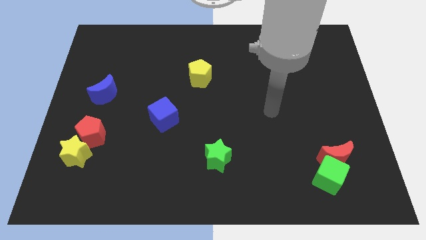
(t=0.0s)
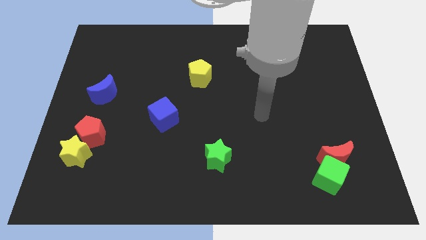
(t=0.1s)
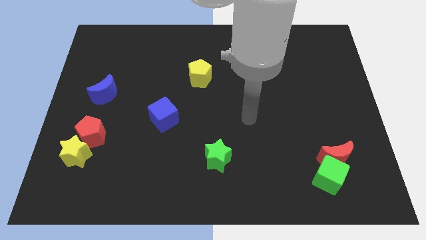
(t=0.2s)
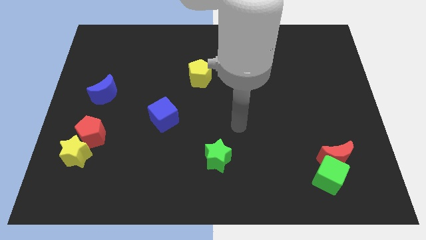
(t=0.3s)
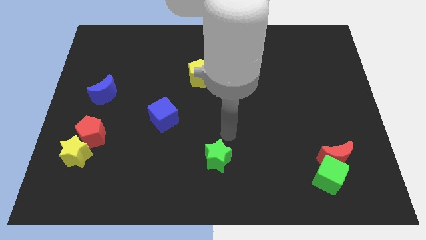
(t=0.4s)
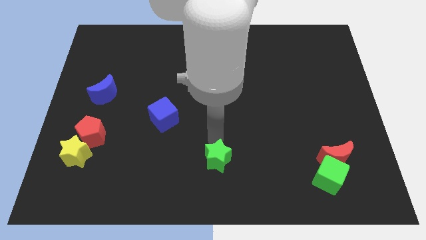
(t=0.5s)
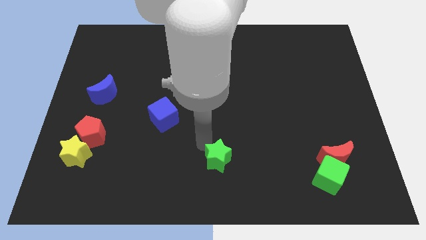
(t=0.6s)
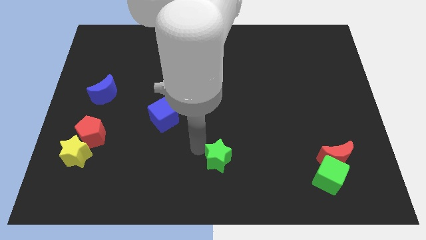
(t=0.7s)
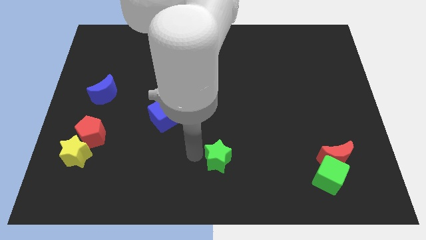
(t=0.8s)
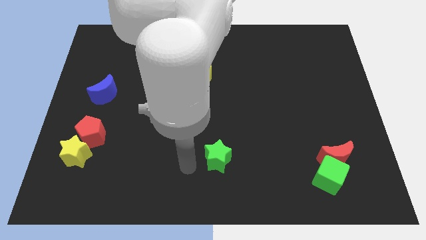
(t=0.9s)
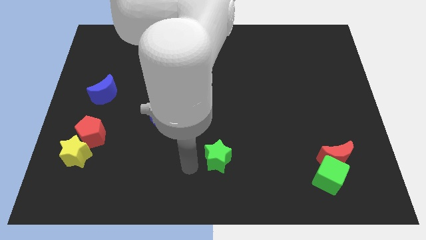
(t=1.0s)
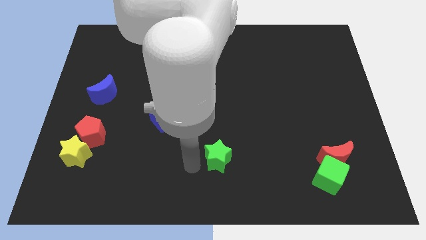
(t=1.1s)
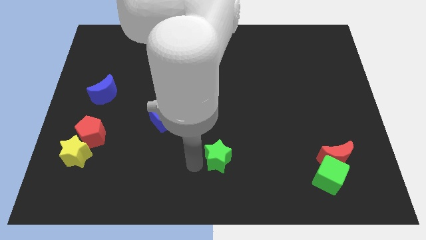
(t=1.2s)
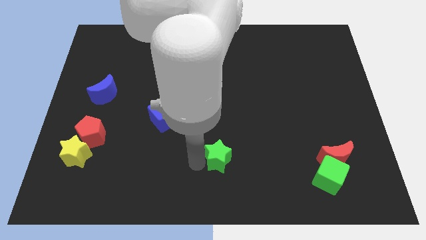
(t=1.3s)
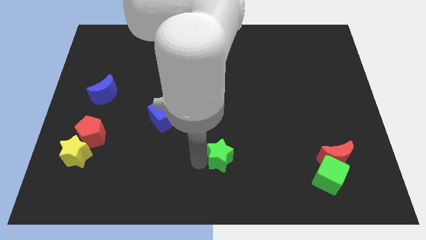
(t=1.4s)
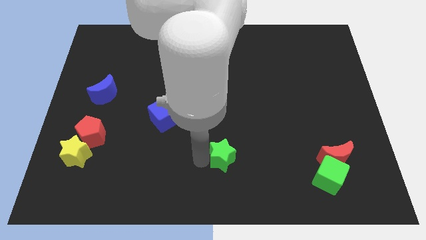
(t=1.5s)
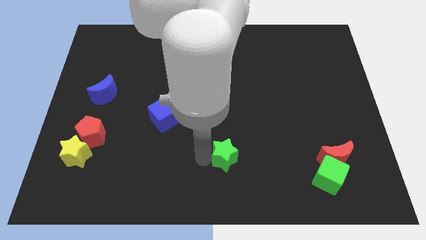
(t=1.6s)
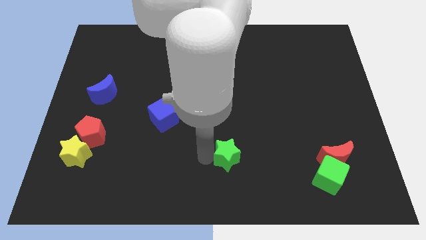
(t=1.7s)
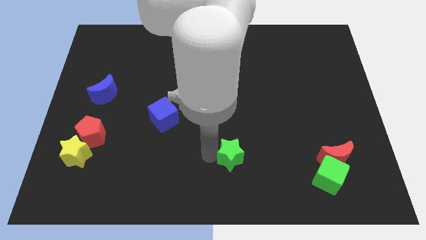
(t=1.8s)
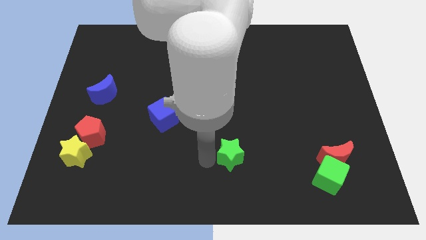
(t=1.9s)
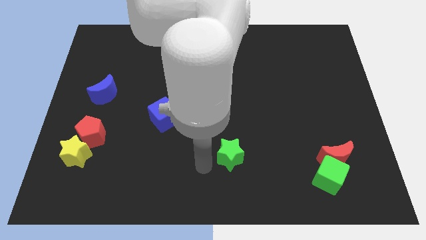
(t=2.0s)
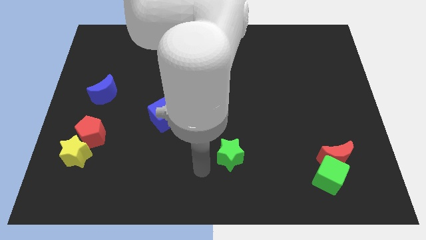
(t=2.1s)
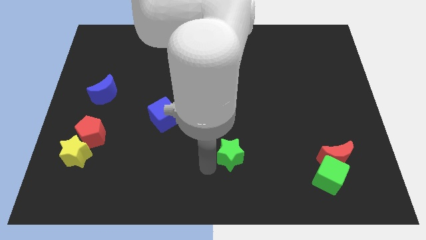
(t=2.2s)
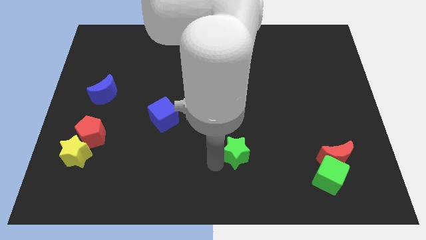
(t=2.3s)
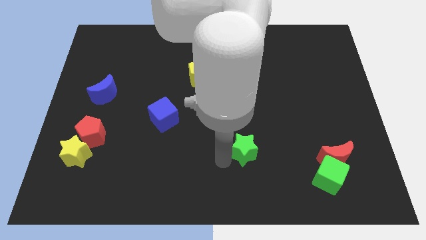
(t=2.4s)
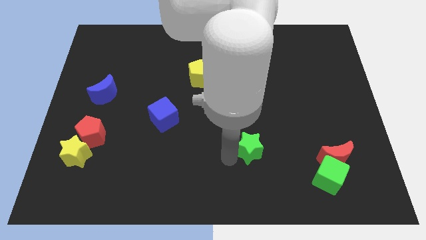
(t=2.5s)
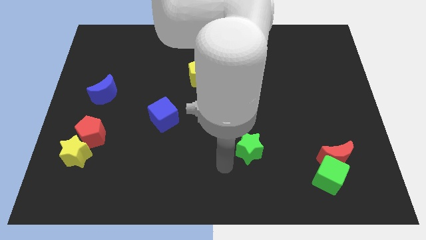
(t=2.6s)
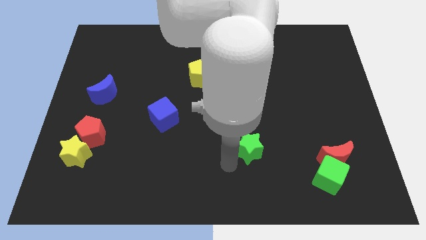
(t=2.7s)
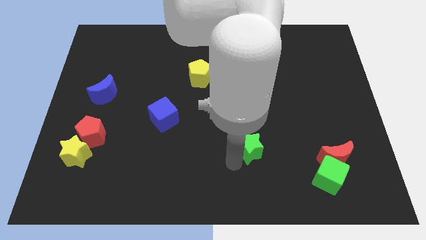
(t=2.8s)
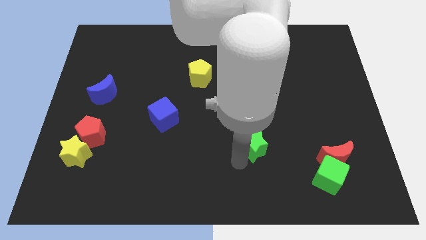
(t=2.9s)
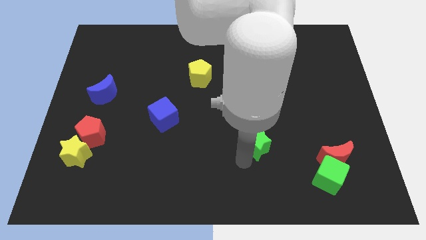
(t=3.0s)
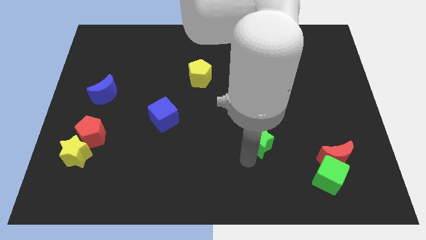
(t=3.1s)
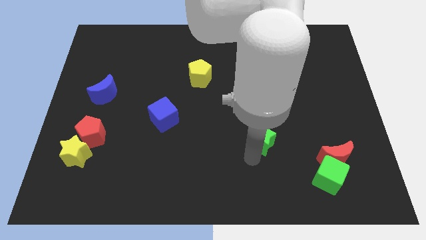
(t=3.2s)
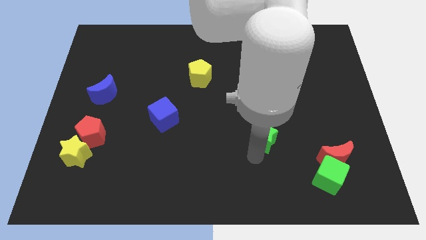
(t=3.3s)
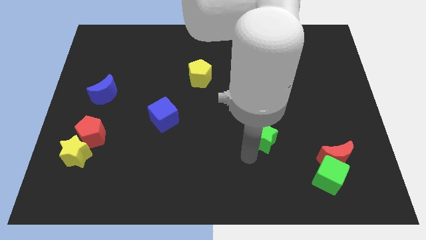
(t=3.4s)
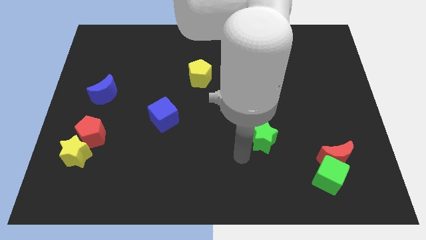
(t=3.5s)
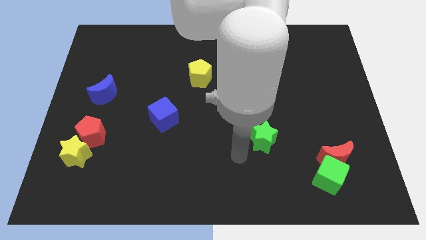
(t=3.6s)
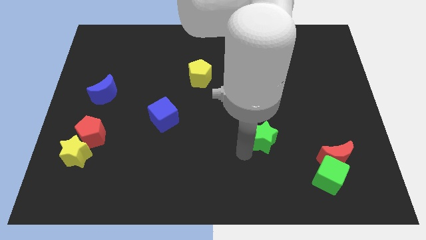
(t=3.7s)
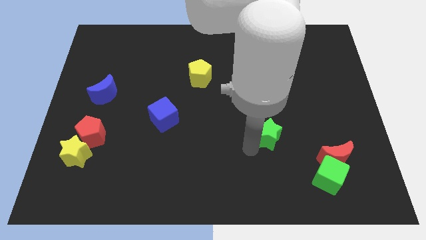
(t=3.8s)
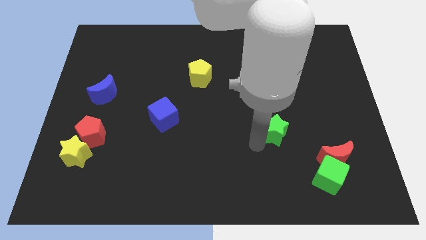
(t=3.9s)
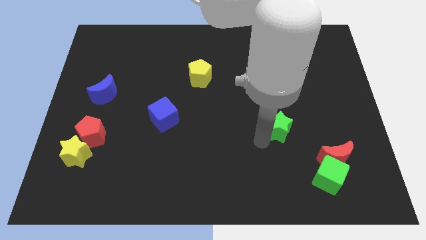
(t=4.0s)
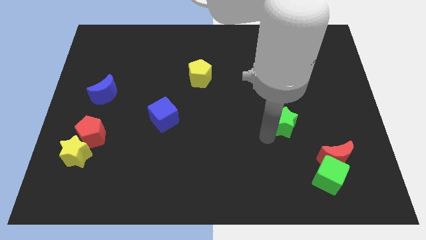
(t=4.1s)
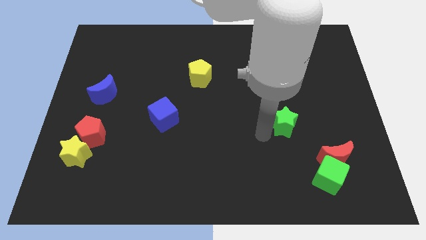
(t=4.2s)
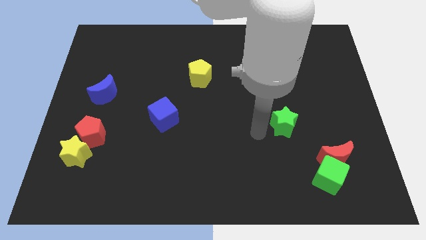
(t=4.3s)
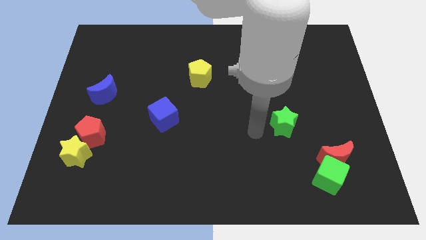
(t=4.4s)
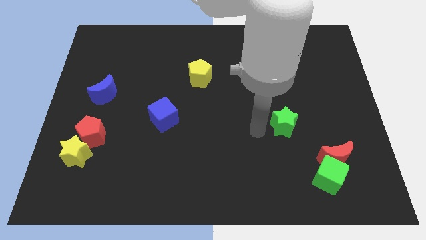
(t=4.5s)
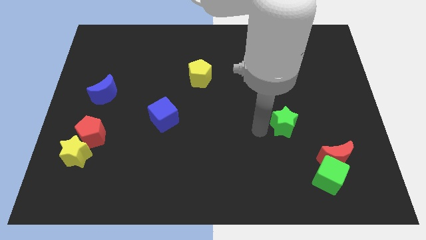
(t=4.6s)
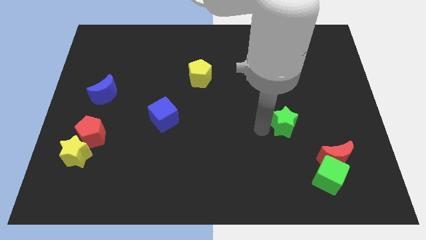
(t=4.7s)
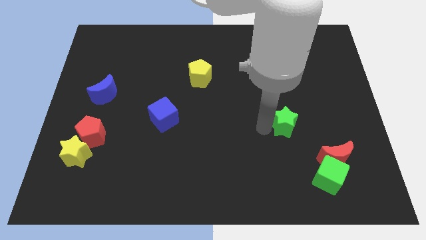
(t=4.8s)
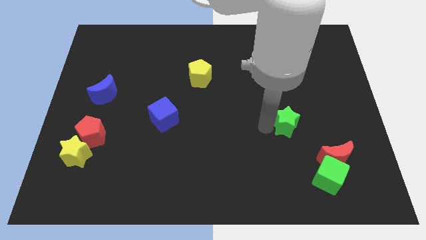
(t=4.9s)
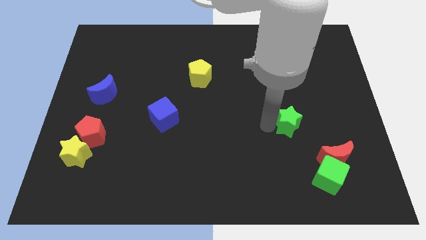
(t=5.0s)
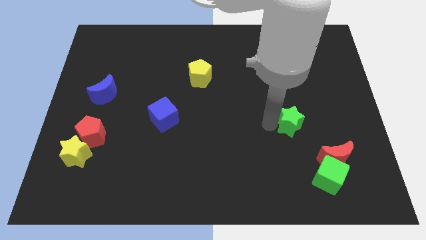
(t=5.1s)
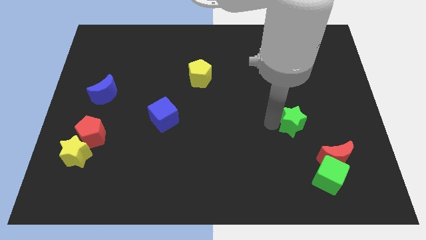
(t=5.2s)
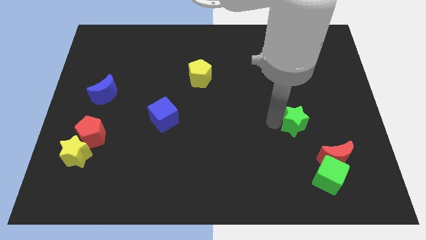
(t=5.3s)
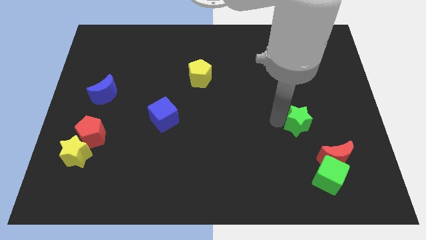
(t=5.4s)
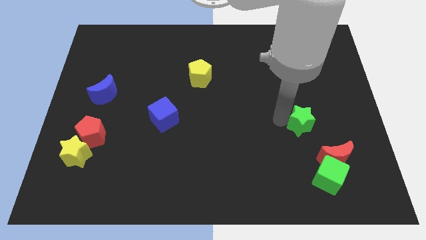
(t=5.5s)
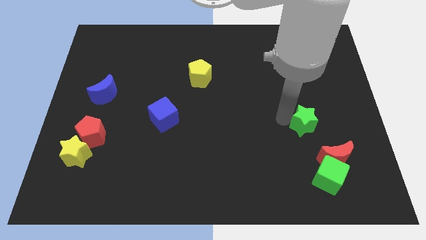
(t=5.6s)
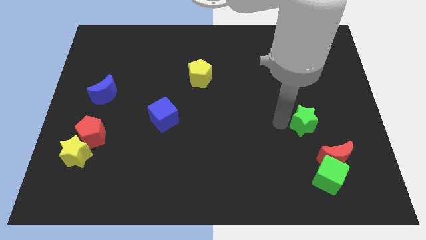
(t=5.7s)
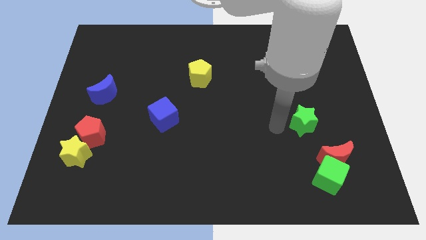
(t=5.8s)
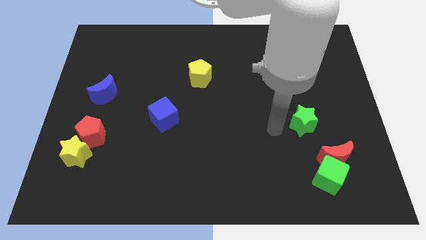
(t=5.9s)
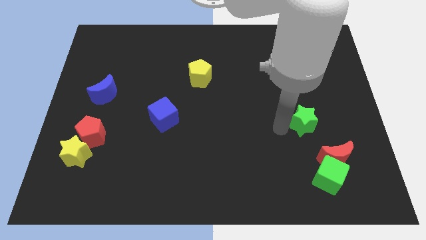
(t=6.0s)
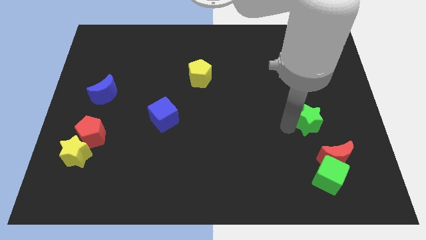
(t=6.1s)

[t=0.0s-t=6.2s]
move the green star to the top of the red moon
